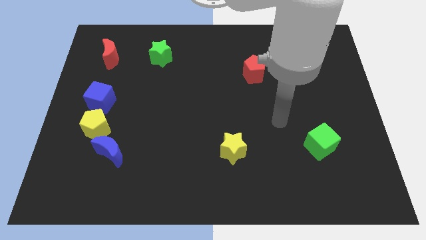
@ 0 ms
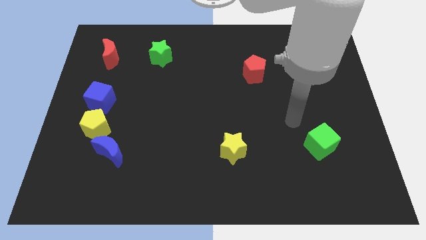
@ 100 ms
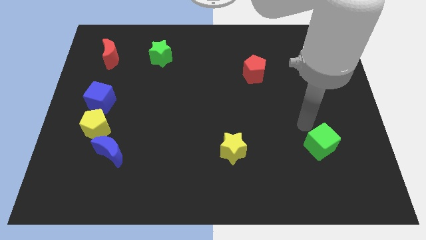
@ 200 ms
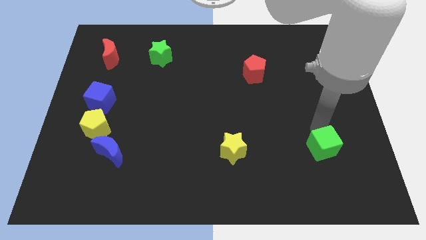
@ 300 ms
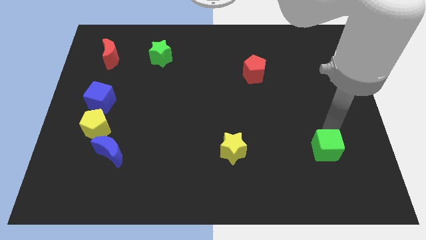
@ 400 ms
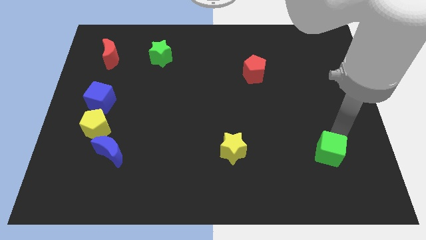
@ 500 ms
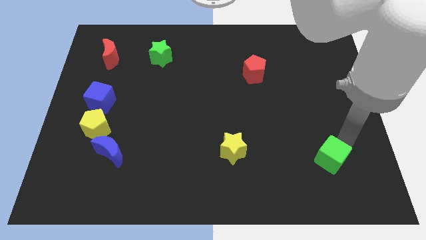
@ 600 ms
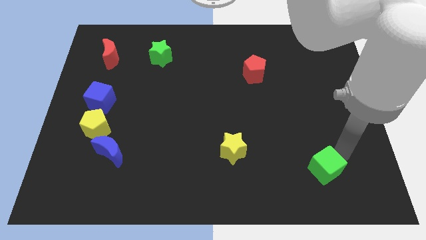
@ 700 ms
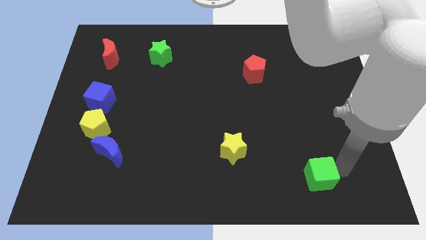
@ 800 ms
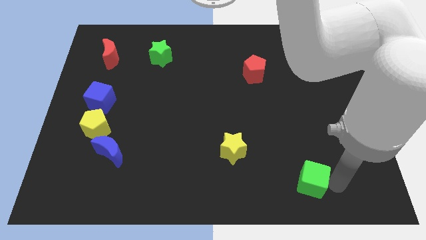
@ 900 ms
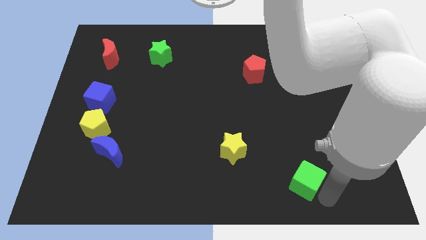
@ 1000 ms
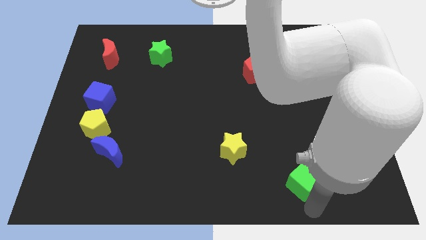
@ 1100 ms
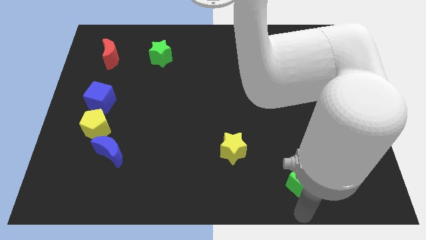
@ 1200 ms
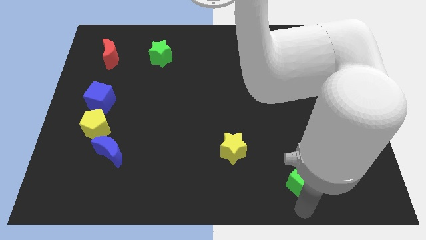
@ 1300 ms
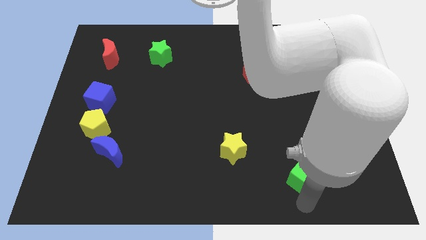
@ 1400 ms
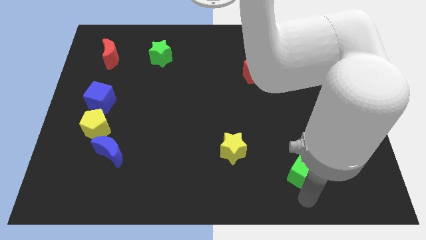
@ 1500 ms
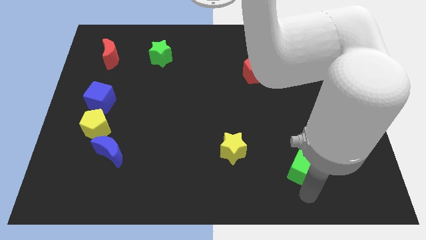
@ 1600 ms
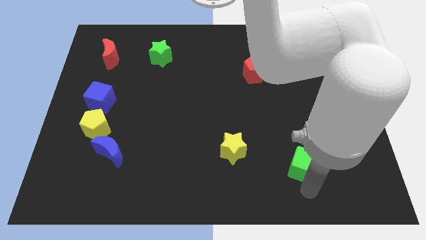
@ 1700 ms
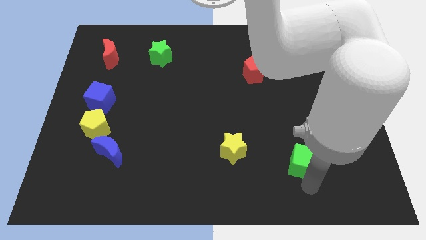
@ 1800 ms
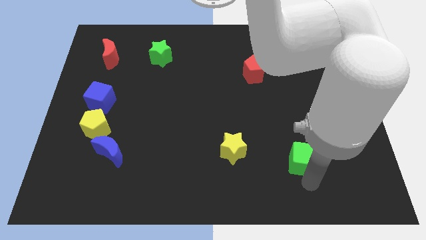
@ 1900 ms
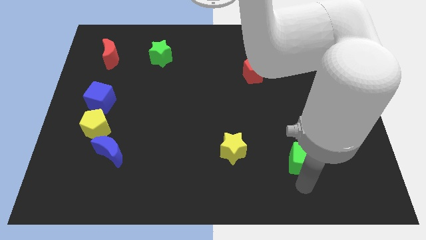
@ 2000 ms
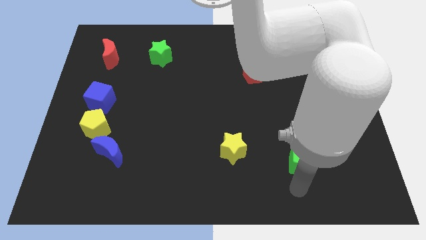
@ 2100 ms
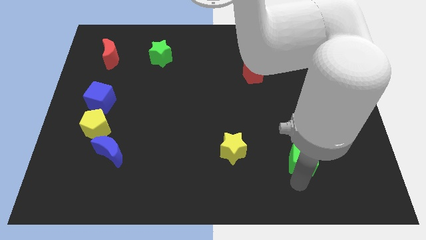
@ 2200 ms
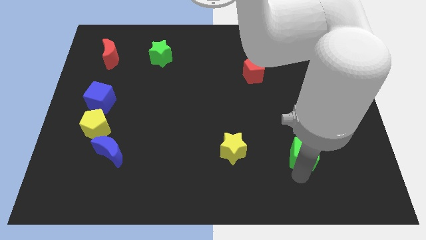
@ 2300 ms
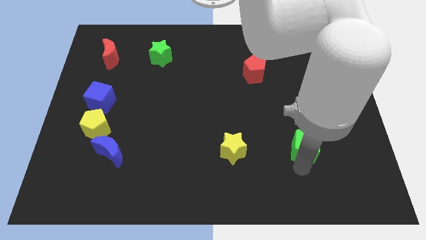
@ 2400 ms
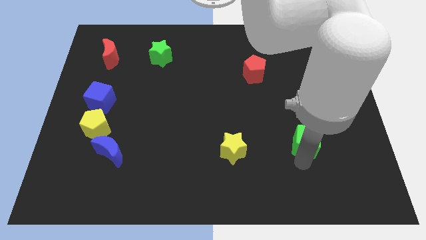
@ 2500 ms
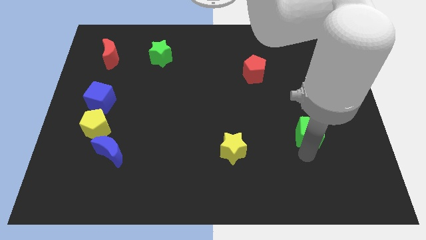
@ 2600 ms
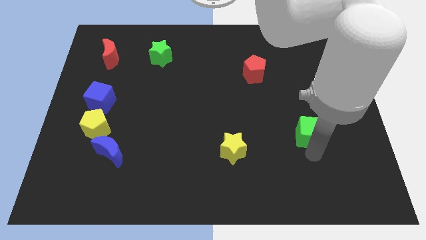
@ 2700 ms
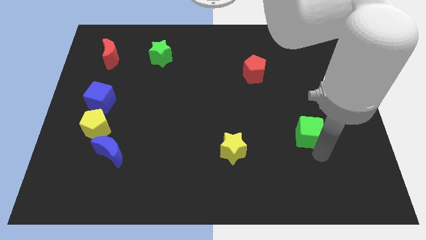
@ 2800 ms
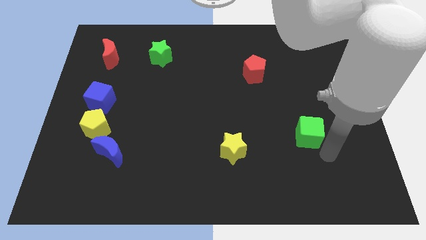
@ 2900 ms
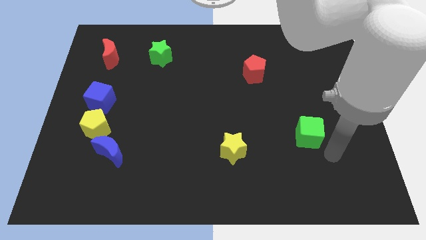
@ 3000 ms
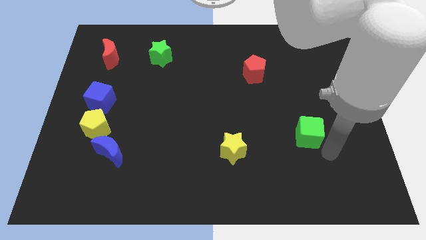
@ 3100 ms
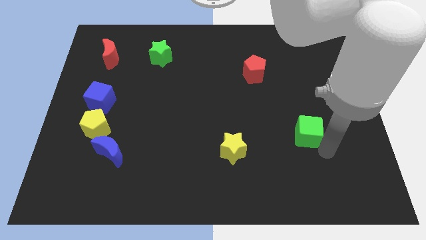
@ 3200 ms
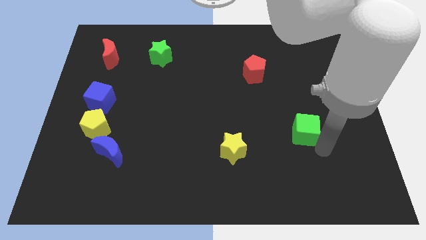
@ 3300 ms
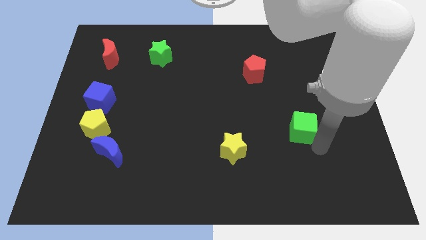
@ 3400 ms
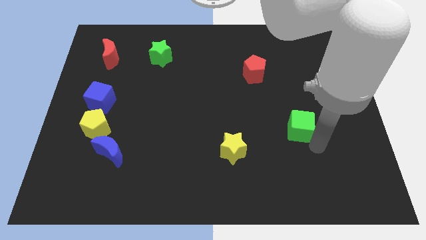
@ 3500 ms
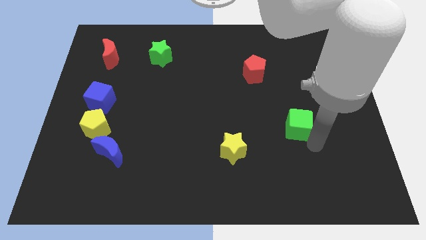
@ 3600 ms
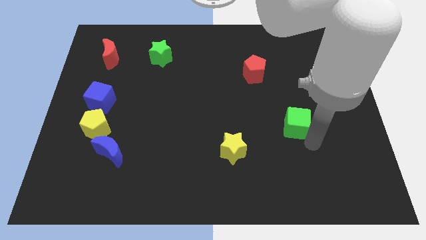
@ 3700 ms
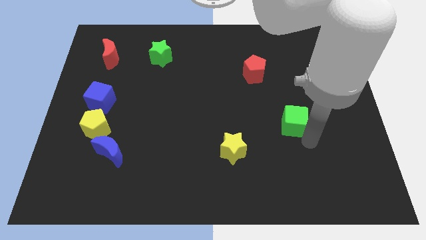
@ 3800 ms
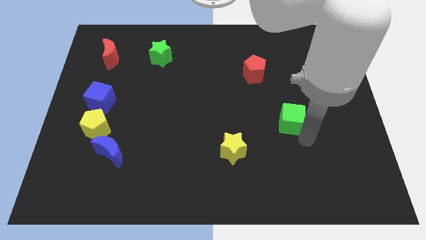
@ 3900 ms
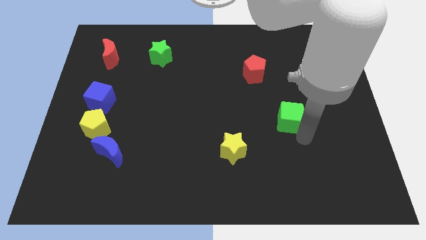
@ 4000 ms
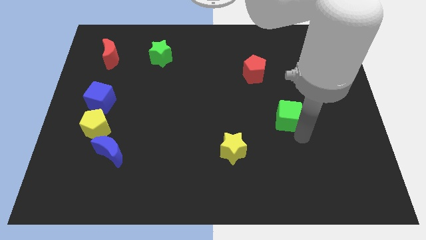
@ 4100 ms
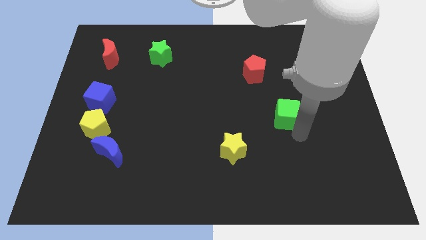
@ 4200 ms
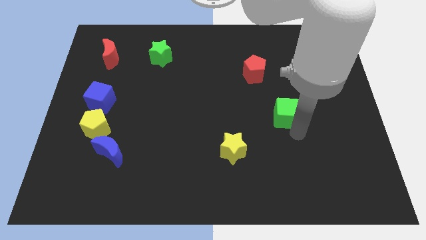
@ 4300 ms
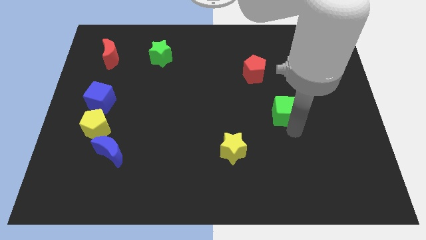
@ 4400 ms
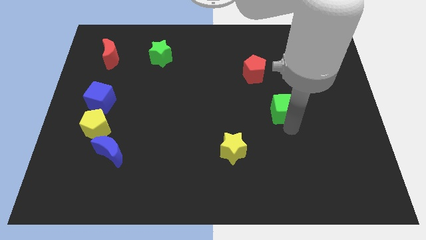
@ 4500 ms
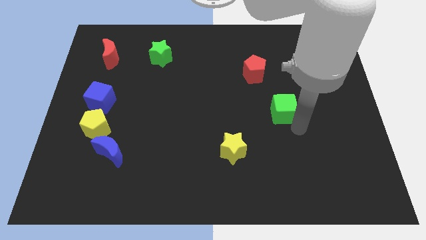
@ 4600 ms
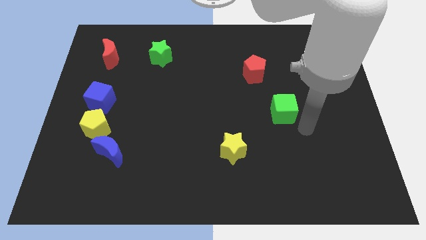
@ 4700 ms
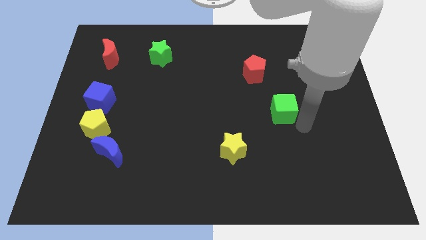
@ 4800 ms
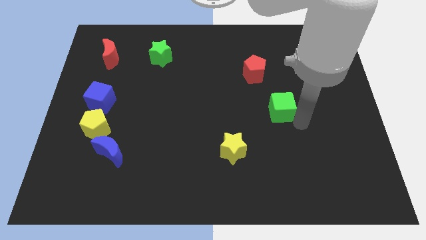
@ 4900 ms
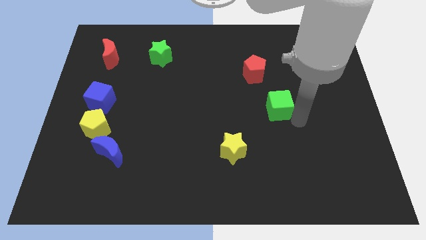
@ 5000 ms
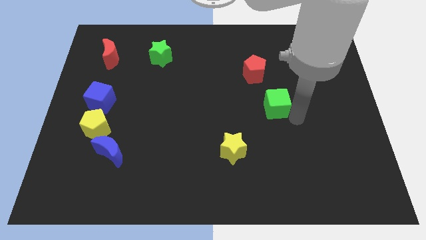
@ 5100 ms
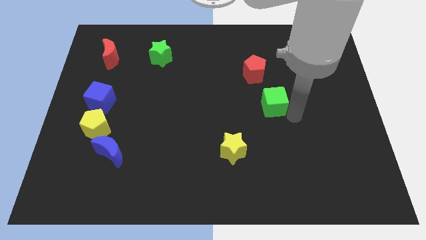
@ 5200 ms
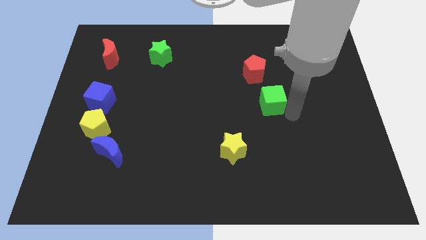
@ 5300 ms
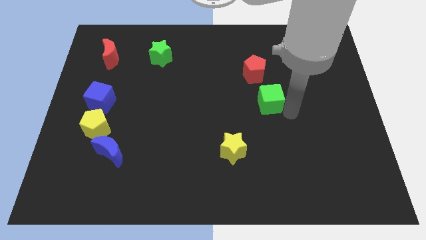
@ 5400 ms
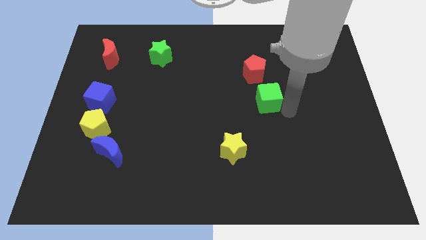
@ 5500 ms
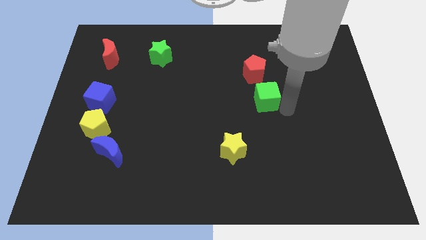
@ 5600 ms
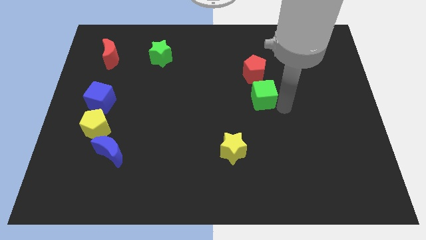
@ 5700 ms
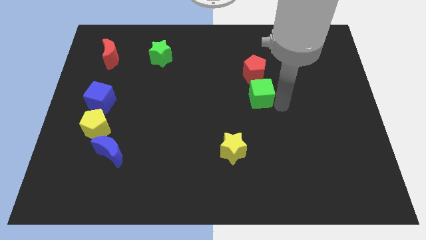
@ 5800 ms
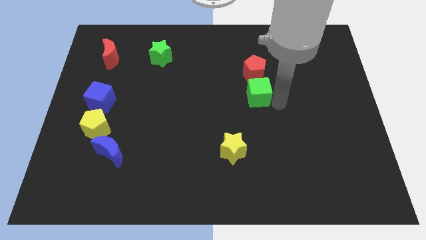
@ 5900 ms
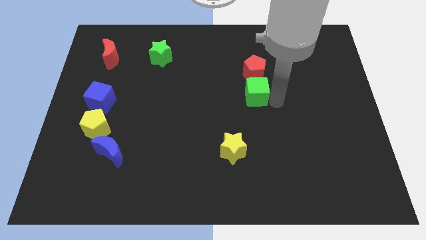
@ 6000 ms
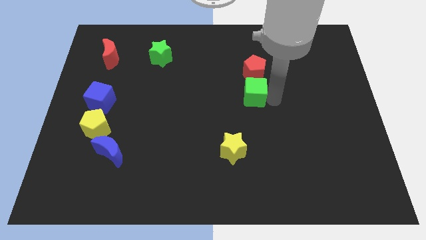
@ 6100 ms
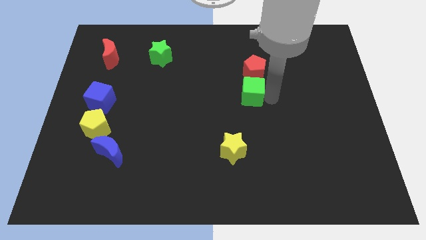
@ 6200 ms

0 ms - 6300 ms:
slide the green cube up and to the left

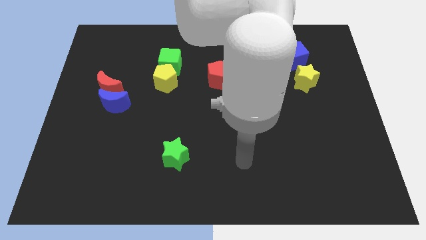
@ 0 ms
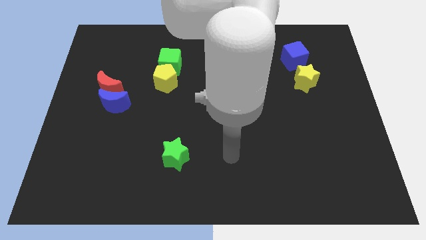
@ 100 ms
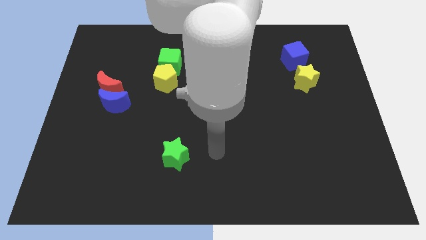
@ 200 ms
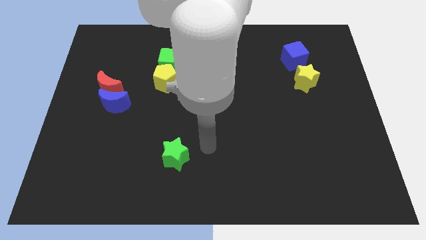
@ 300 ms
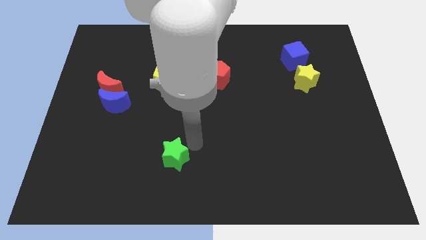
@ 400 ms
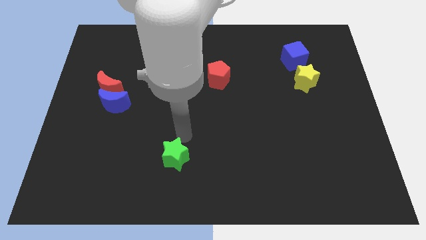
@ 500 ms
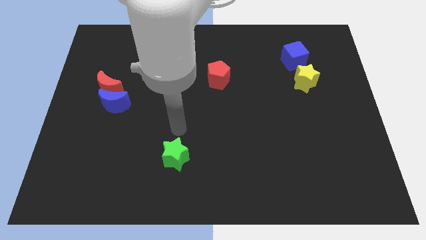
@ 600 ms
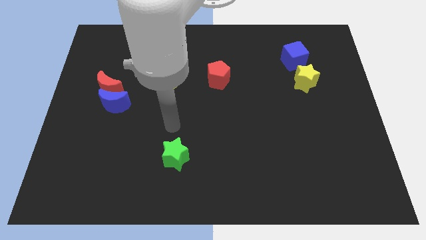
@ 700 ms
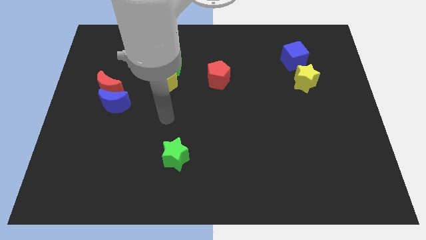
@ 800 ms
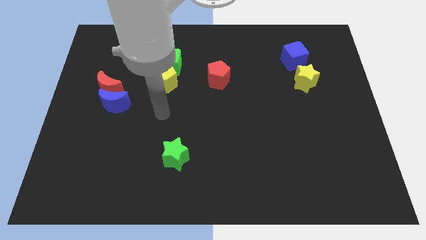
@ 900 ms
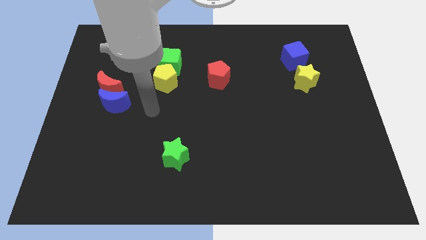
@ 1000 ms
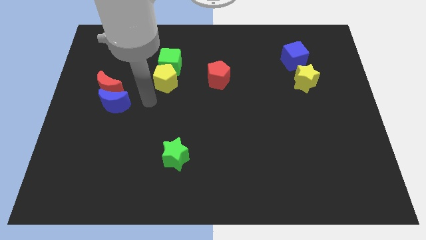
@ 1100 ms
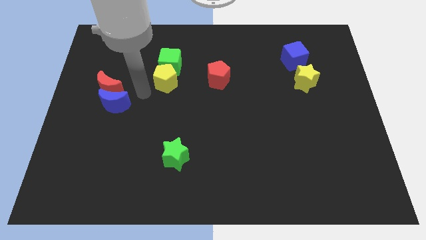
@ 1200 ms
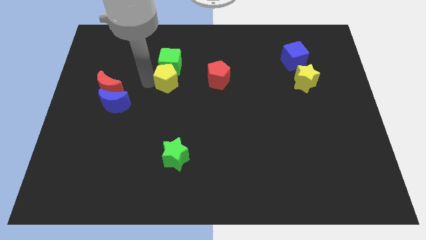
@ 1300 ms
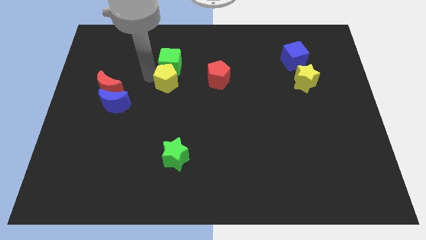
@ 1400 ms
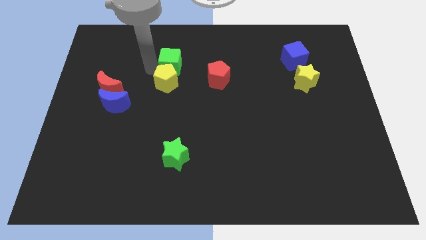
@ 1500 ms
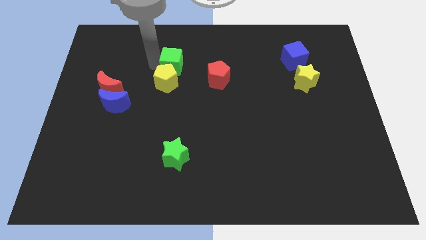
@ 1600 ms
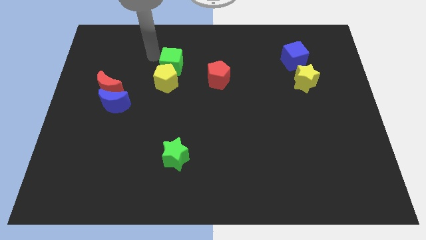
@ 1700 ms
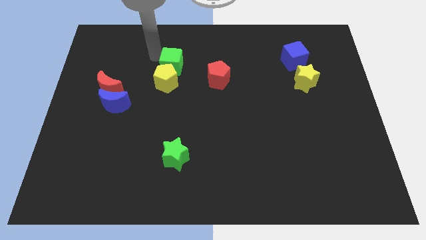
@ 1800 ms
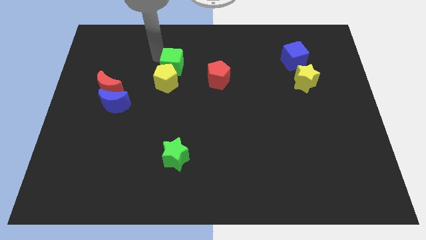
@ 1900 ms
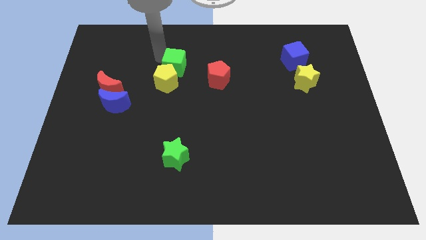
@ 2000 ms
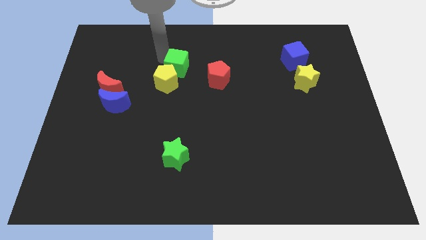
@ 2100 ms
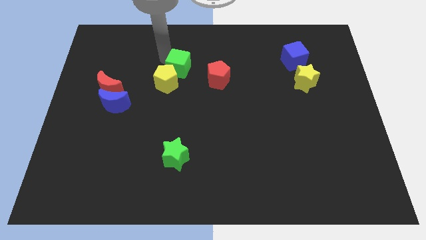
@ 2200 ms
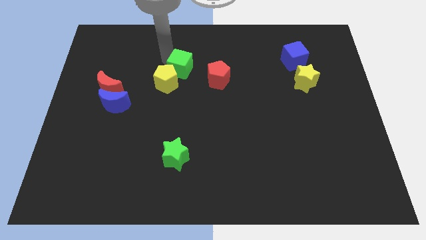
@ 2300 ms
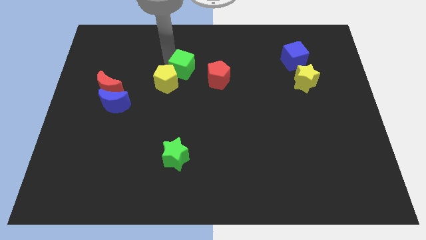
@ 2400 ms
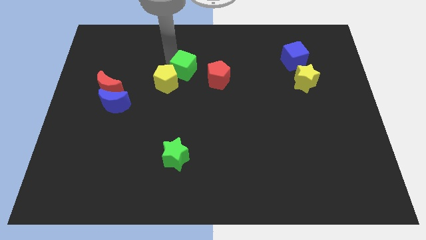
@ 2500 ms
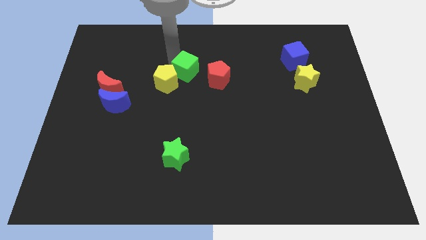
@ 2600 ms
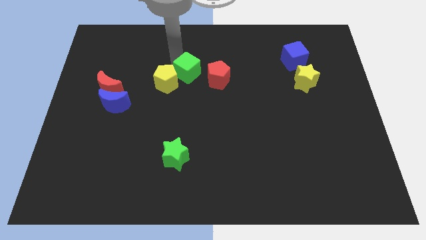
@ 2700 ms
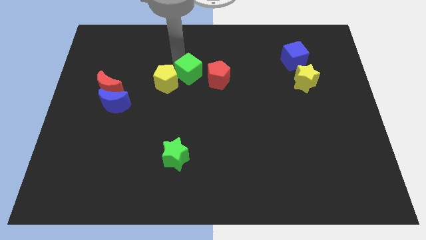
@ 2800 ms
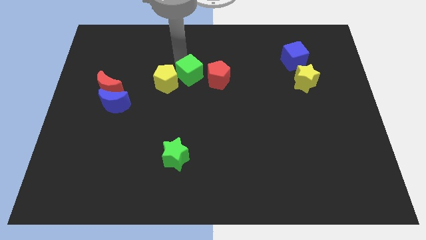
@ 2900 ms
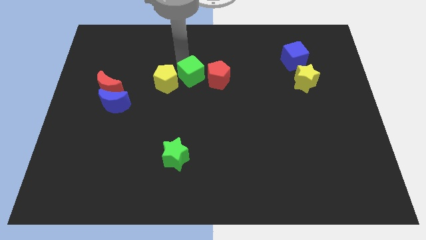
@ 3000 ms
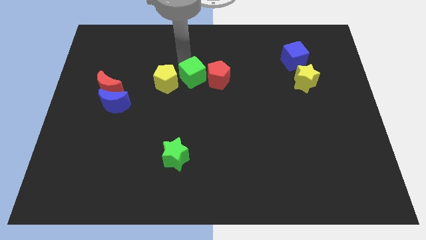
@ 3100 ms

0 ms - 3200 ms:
push the green cube somewhat downwards and right diagonally
